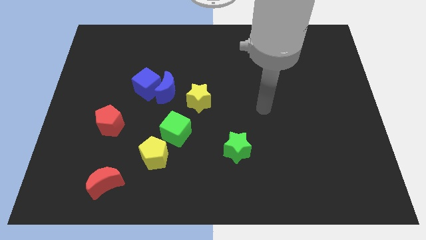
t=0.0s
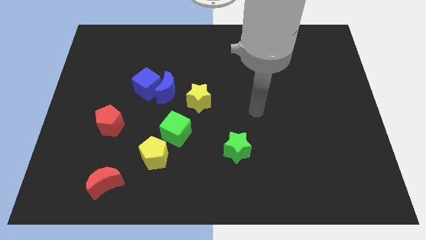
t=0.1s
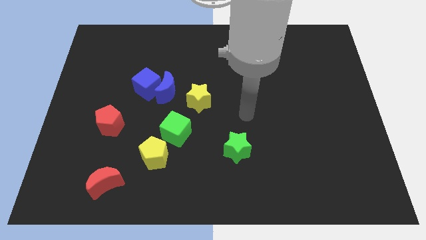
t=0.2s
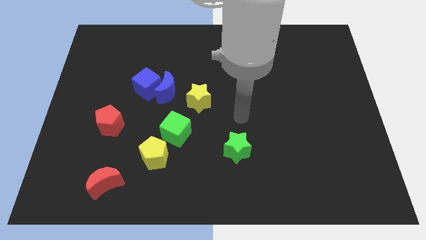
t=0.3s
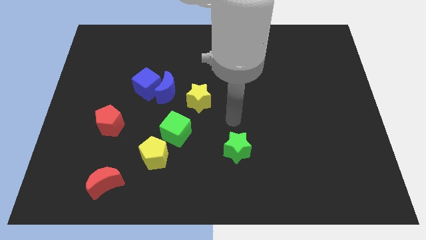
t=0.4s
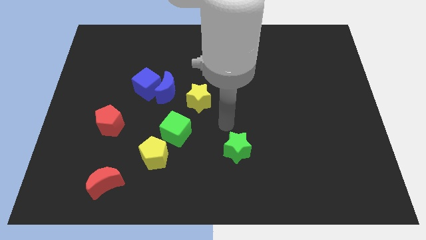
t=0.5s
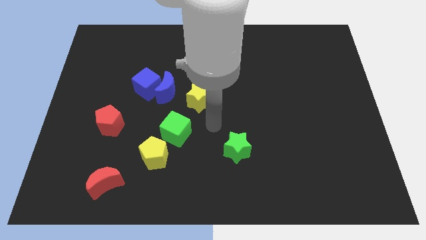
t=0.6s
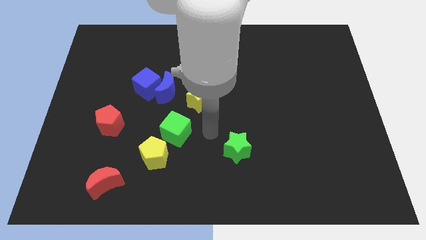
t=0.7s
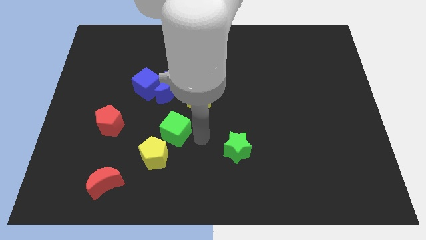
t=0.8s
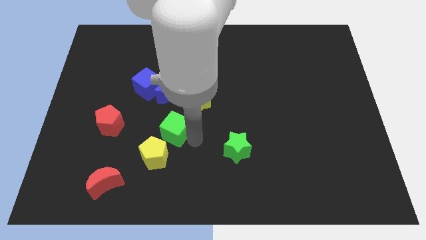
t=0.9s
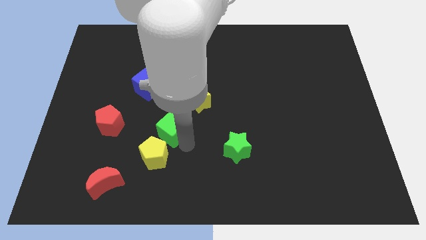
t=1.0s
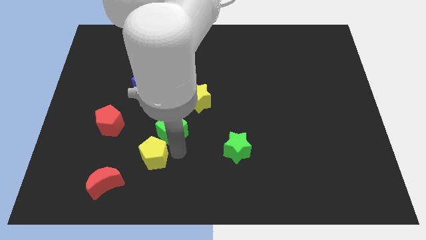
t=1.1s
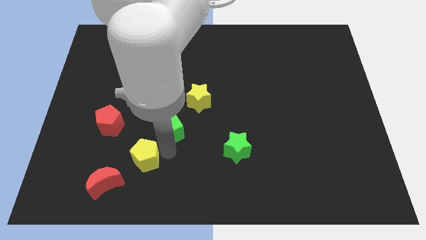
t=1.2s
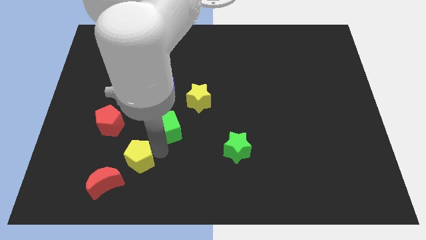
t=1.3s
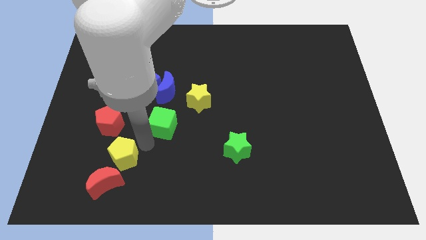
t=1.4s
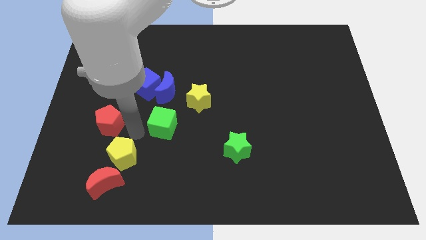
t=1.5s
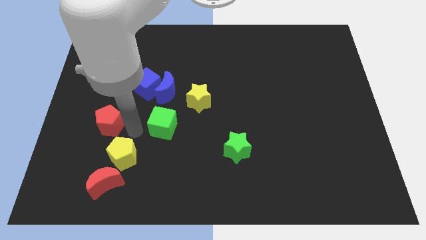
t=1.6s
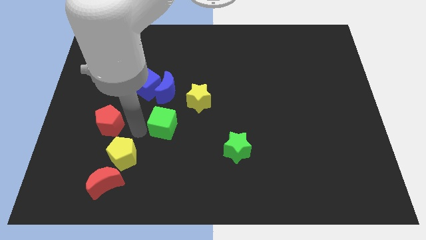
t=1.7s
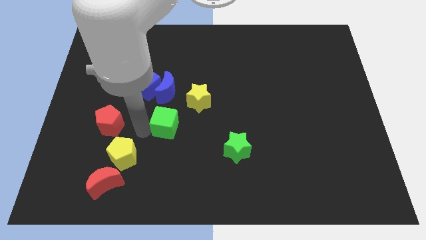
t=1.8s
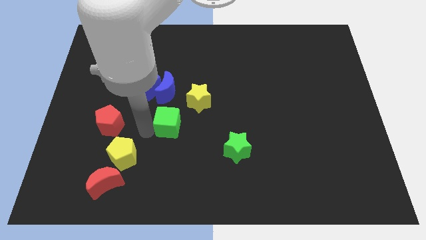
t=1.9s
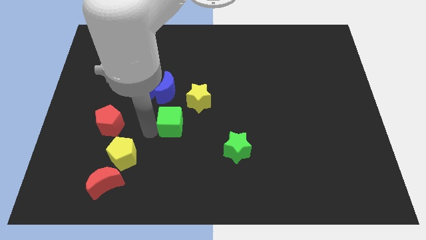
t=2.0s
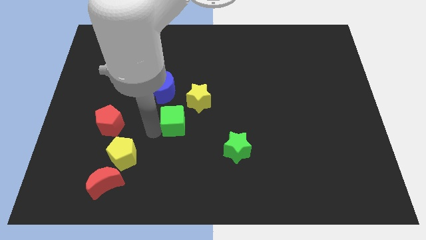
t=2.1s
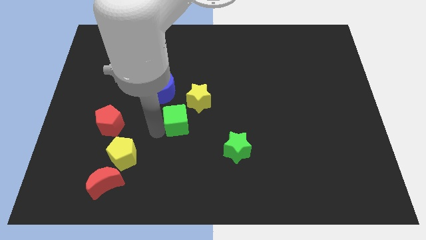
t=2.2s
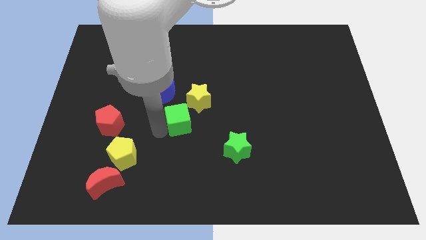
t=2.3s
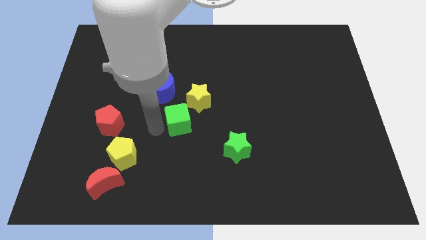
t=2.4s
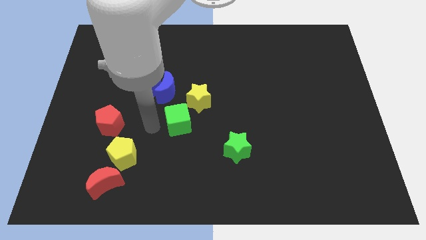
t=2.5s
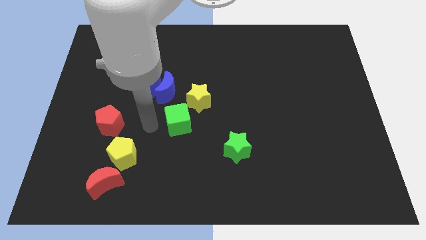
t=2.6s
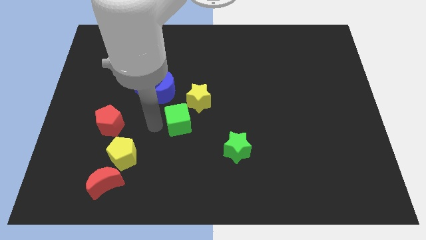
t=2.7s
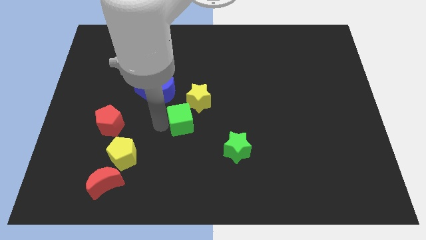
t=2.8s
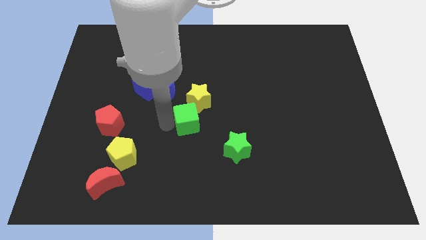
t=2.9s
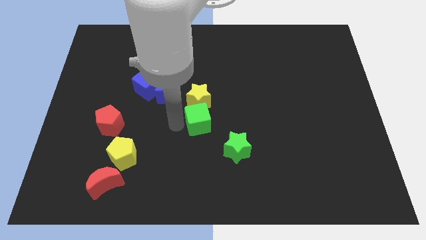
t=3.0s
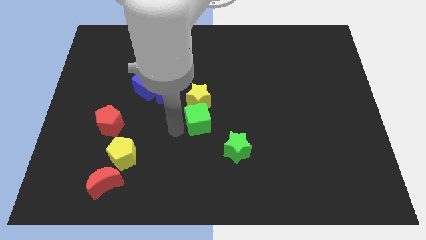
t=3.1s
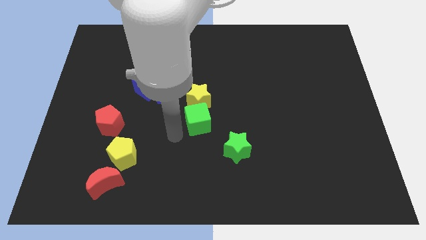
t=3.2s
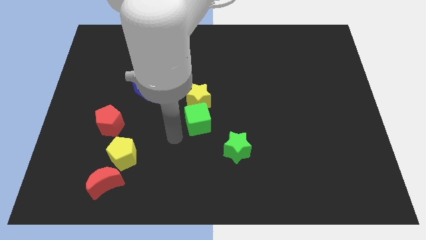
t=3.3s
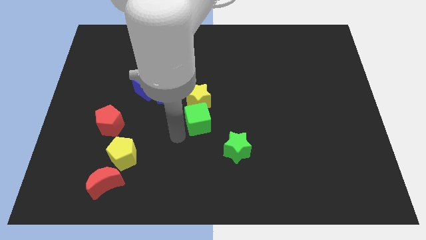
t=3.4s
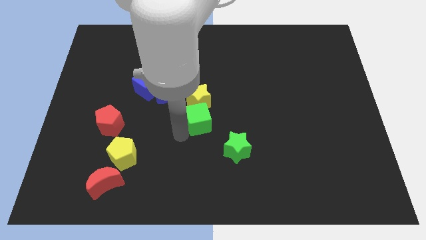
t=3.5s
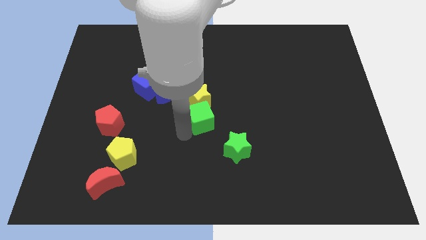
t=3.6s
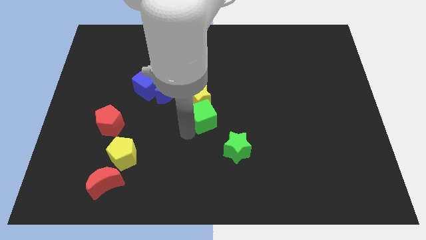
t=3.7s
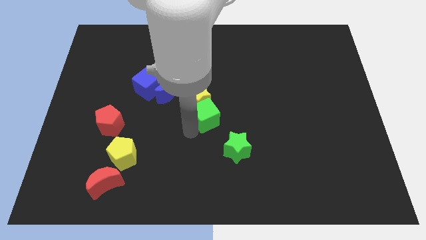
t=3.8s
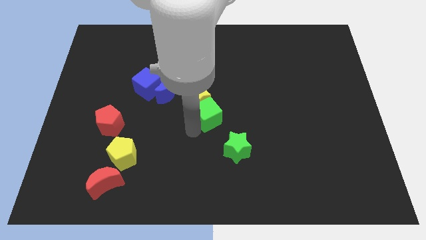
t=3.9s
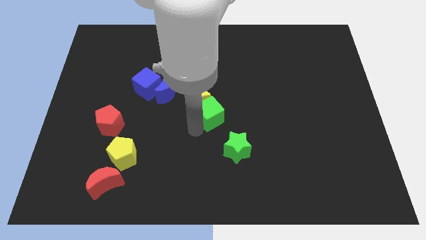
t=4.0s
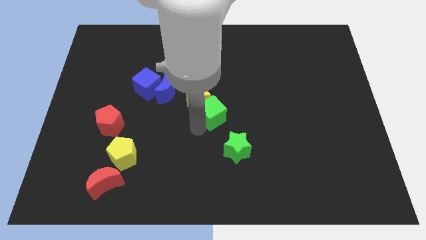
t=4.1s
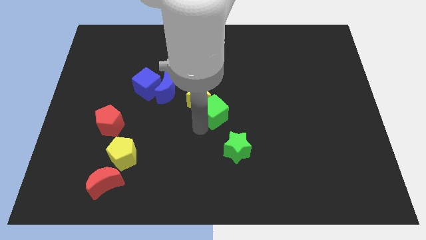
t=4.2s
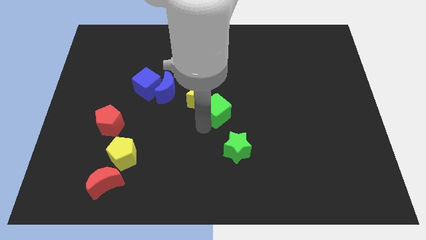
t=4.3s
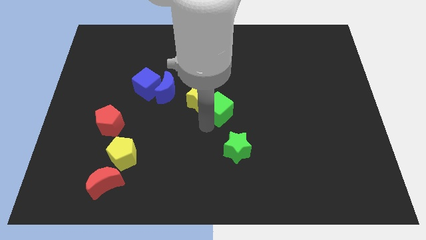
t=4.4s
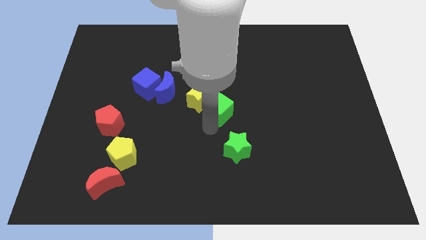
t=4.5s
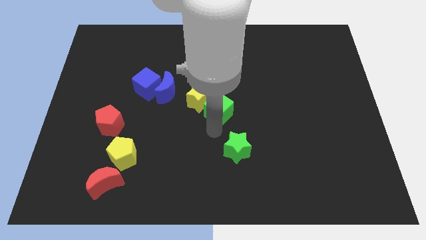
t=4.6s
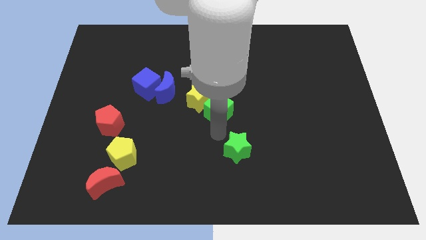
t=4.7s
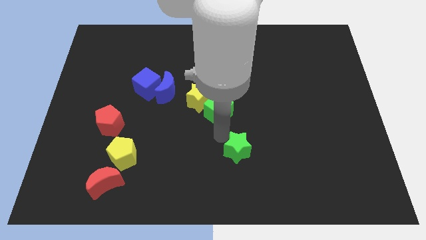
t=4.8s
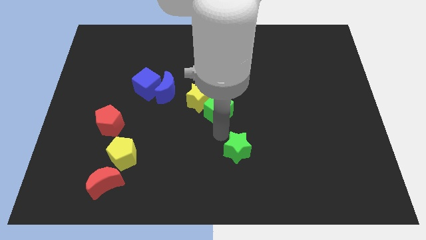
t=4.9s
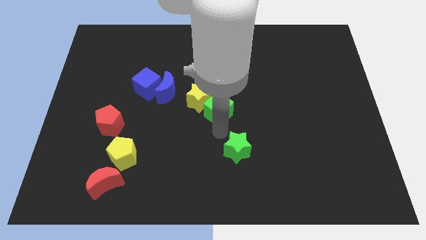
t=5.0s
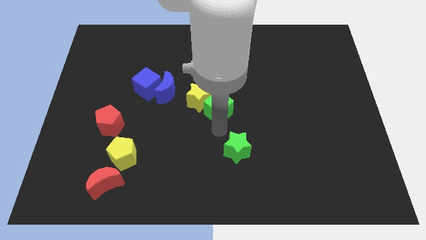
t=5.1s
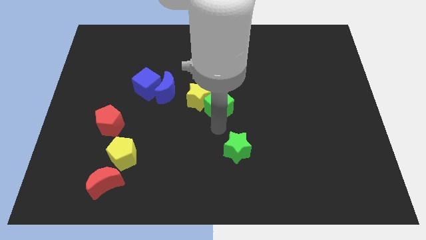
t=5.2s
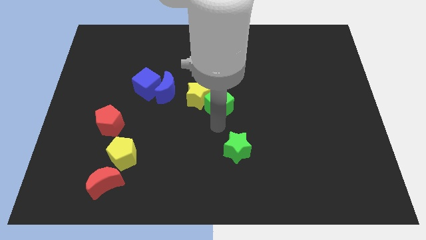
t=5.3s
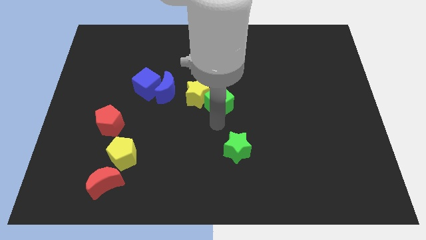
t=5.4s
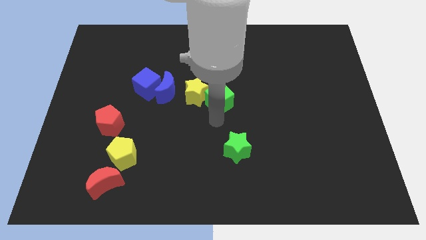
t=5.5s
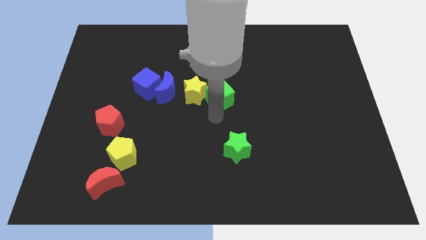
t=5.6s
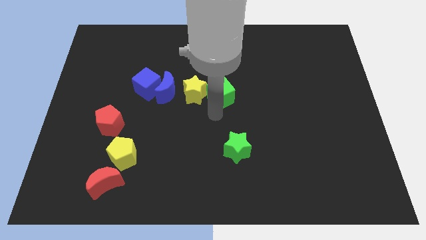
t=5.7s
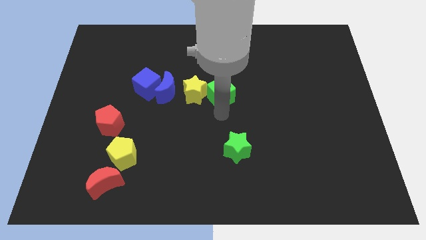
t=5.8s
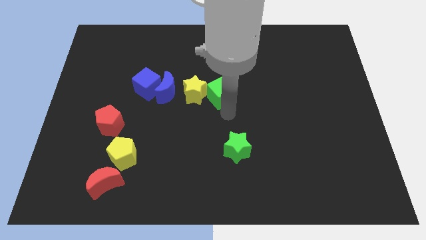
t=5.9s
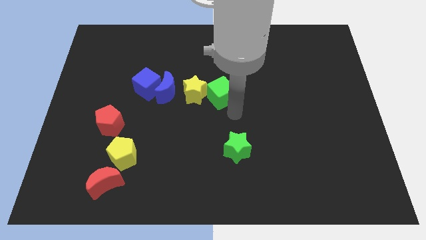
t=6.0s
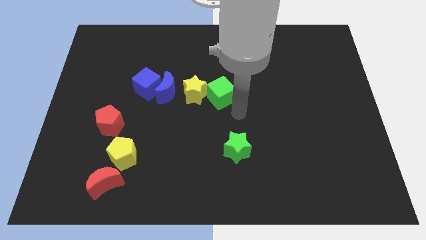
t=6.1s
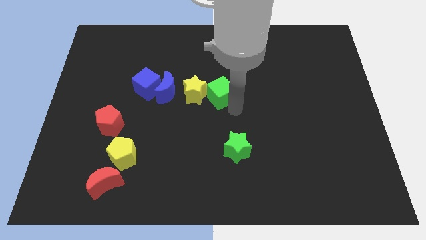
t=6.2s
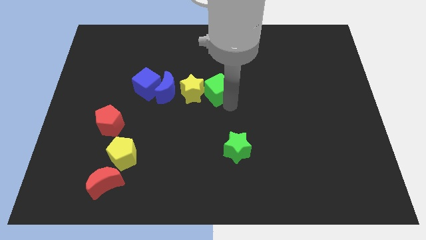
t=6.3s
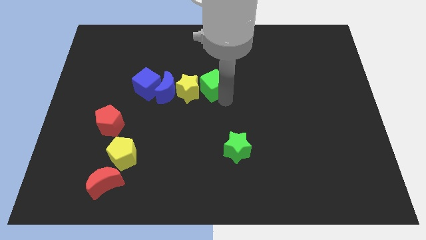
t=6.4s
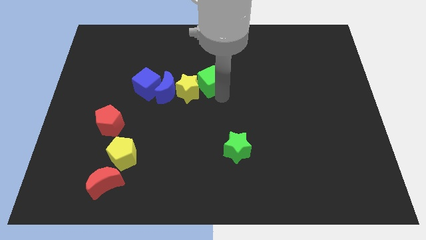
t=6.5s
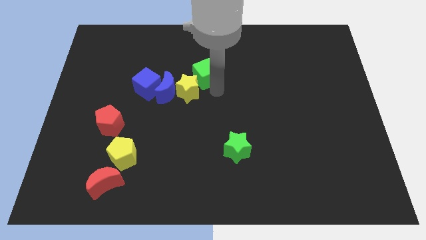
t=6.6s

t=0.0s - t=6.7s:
put the green cube to the top side of the yellow star
